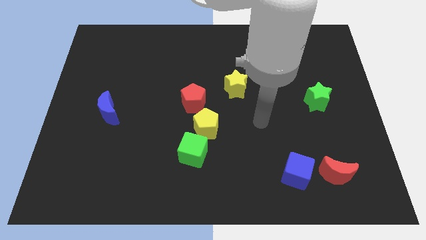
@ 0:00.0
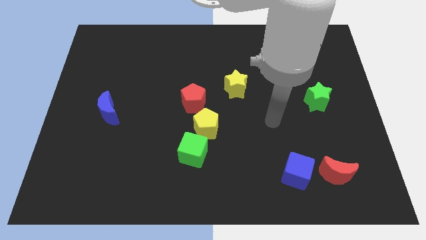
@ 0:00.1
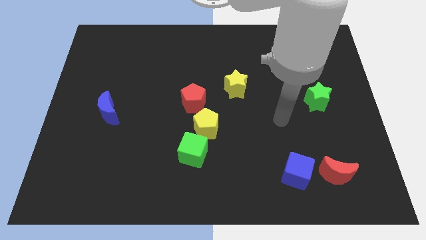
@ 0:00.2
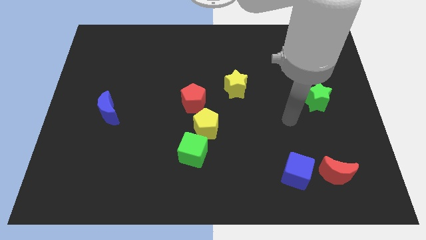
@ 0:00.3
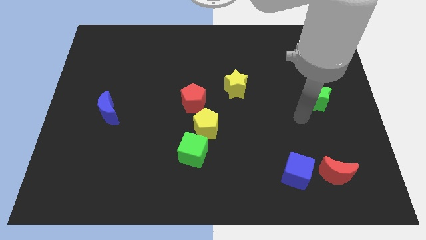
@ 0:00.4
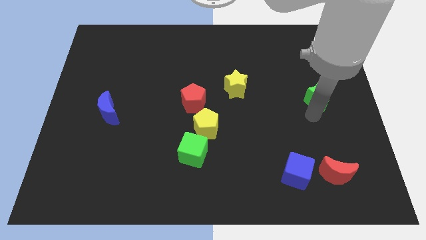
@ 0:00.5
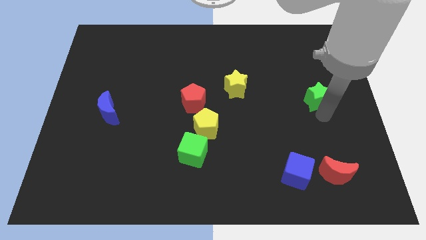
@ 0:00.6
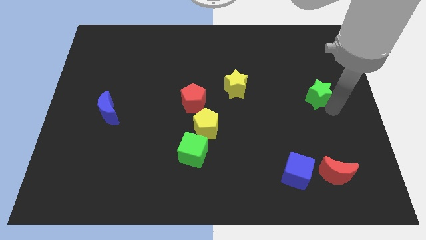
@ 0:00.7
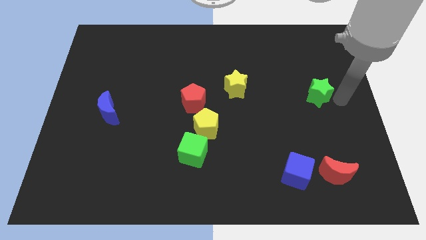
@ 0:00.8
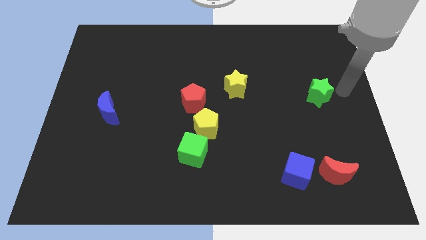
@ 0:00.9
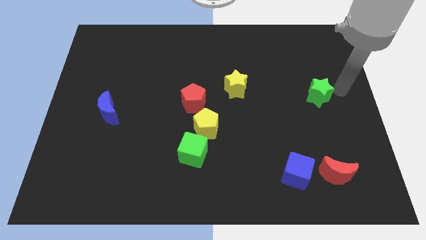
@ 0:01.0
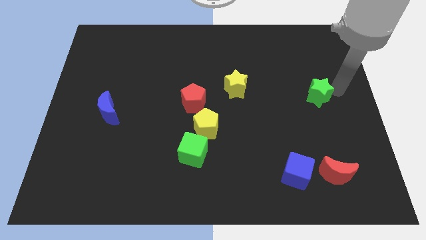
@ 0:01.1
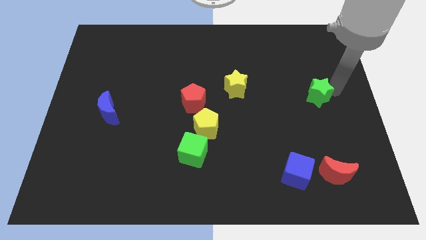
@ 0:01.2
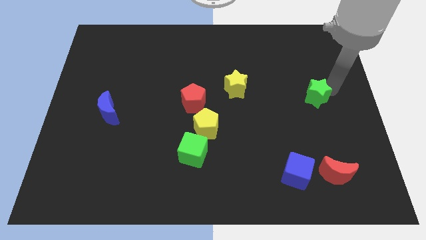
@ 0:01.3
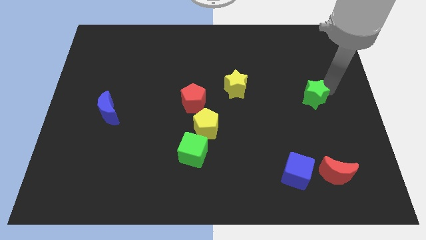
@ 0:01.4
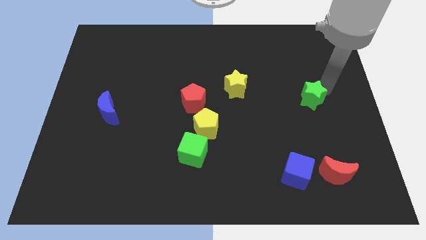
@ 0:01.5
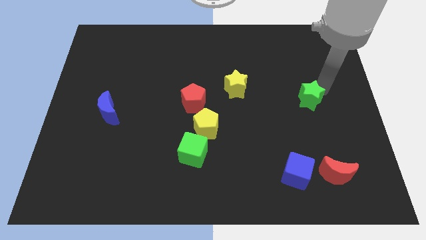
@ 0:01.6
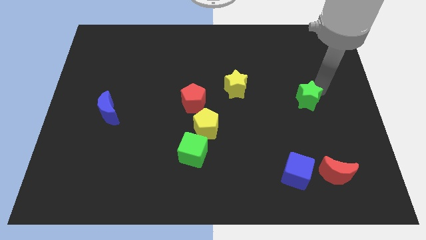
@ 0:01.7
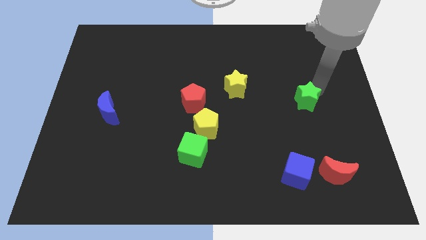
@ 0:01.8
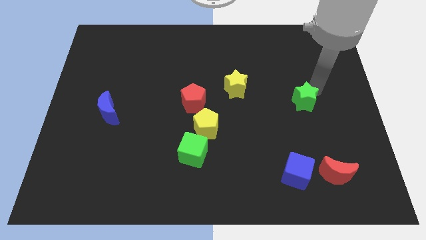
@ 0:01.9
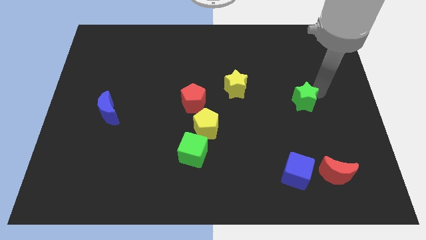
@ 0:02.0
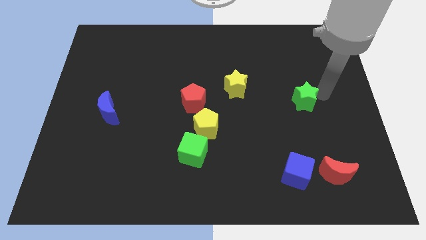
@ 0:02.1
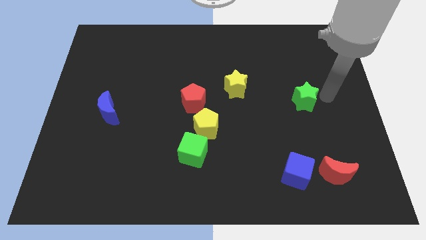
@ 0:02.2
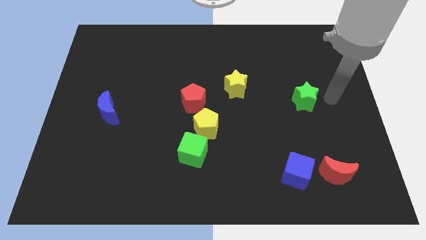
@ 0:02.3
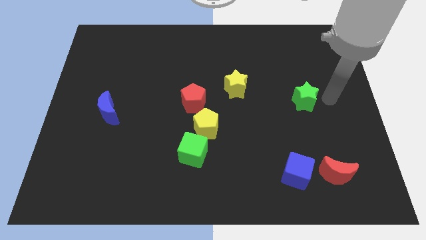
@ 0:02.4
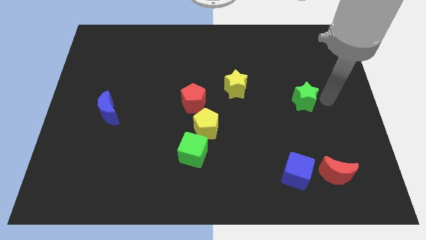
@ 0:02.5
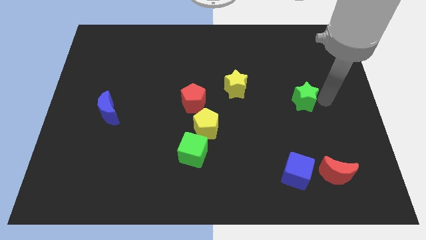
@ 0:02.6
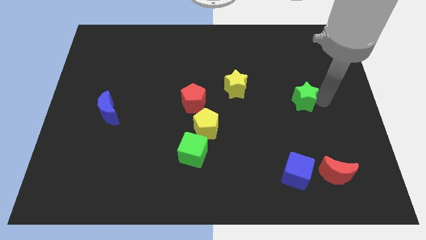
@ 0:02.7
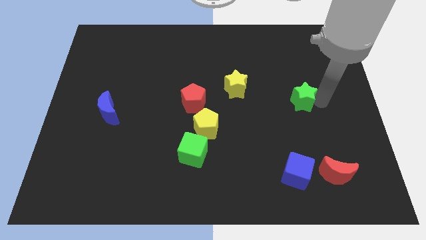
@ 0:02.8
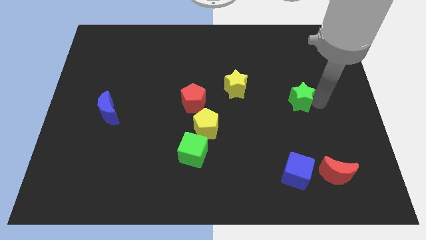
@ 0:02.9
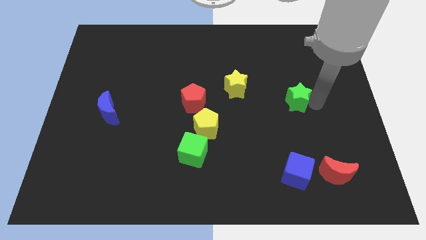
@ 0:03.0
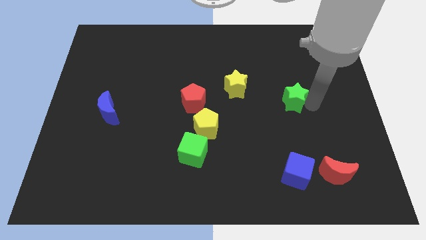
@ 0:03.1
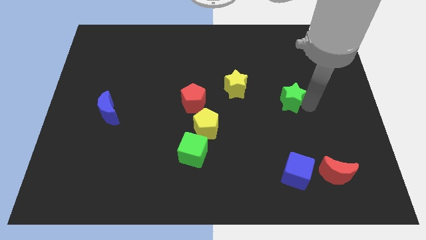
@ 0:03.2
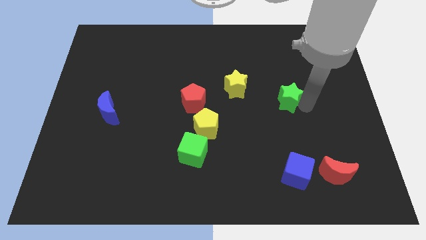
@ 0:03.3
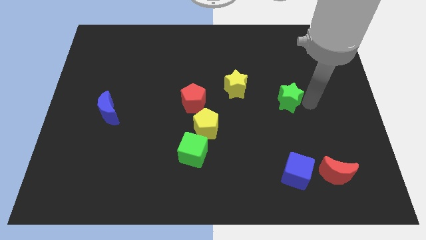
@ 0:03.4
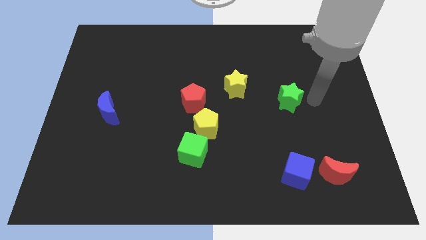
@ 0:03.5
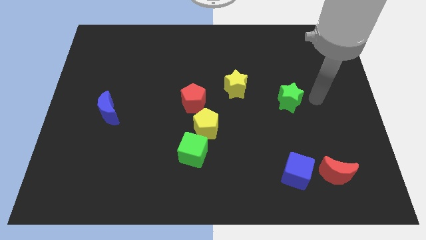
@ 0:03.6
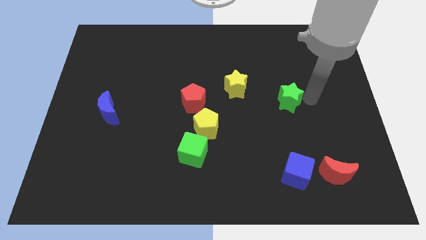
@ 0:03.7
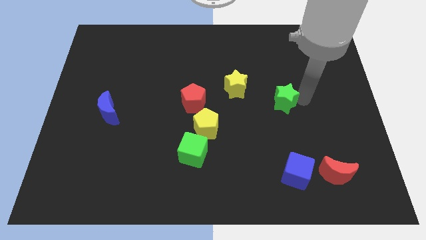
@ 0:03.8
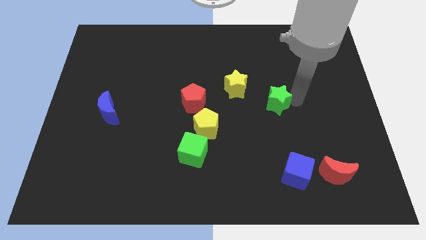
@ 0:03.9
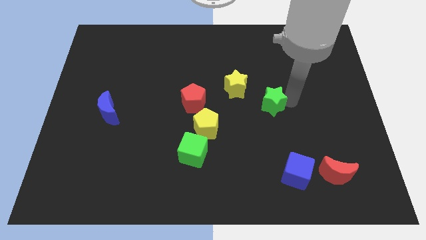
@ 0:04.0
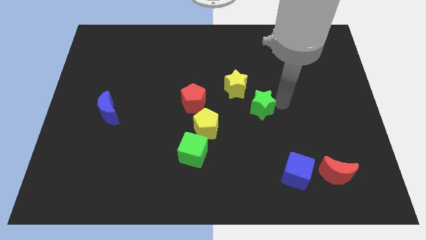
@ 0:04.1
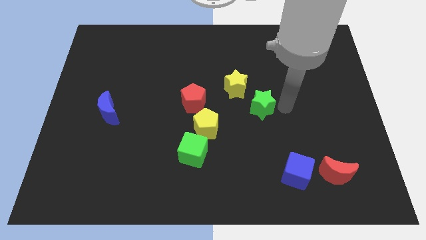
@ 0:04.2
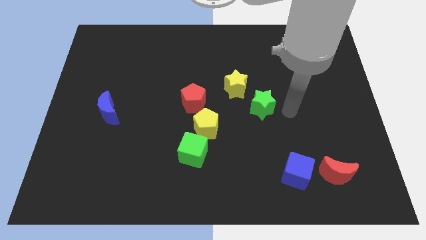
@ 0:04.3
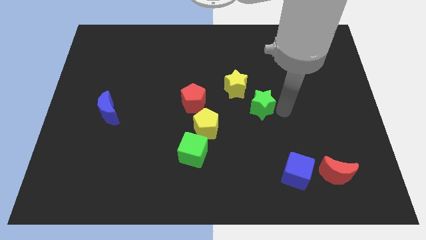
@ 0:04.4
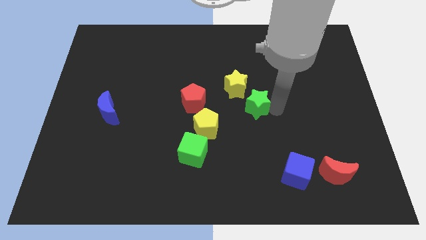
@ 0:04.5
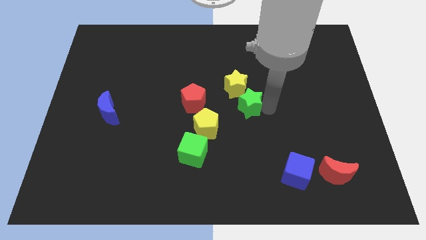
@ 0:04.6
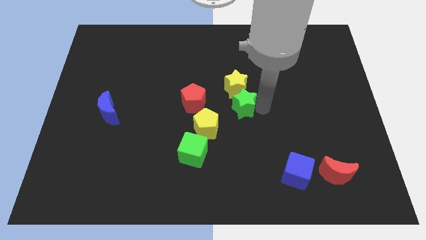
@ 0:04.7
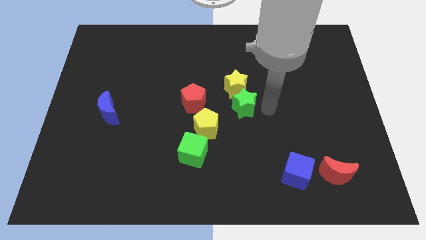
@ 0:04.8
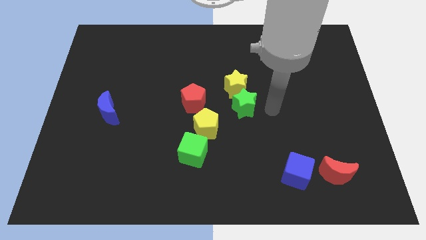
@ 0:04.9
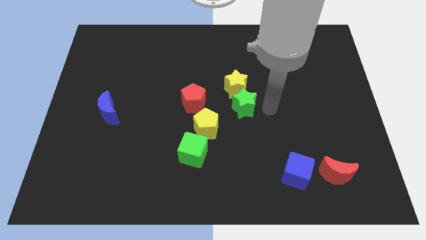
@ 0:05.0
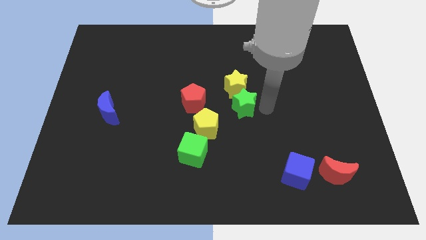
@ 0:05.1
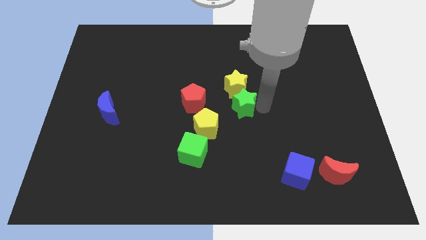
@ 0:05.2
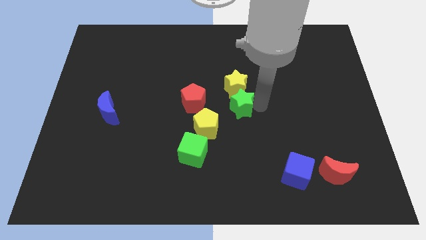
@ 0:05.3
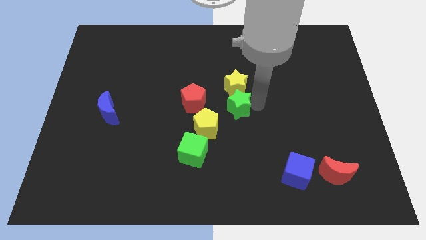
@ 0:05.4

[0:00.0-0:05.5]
move the green star diagonally down and to the left of the yellow star

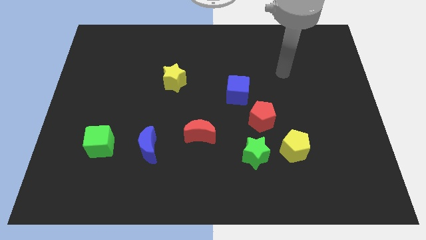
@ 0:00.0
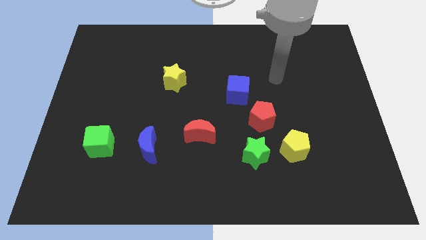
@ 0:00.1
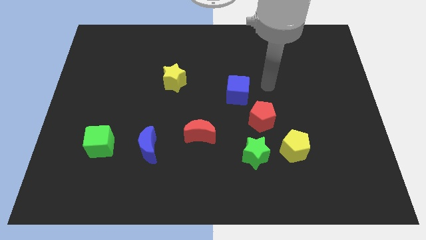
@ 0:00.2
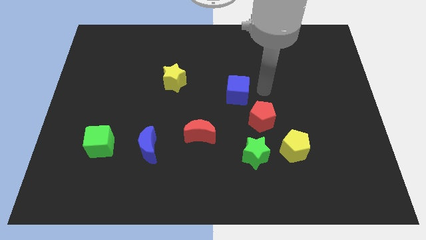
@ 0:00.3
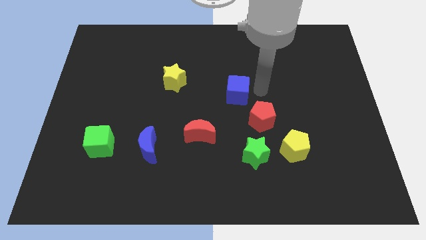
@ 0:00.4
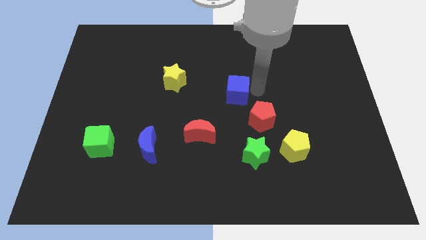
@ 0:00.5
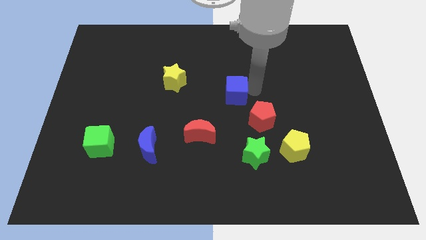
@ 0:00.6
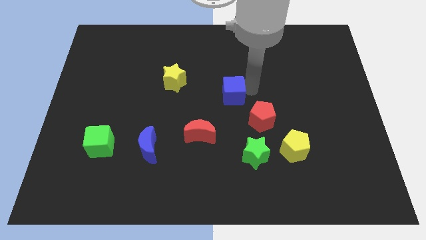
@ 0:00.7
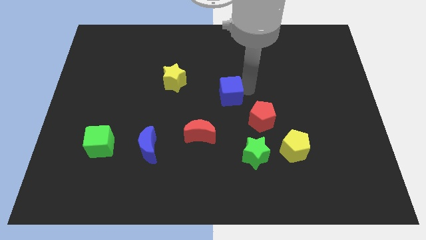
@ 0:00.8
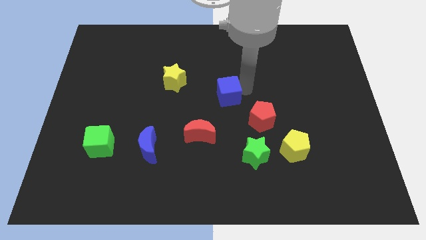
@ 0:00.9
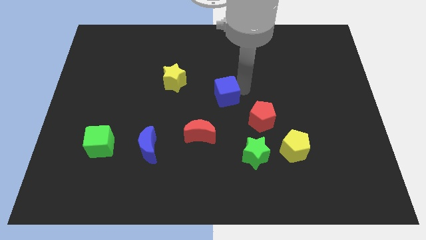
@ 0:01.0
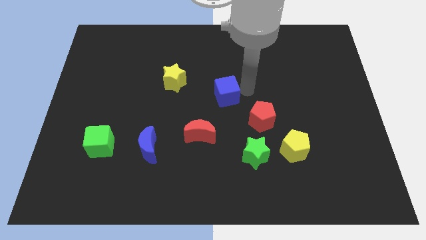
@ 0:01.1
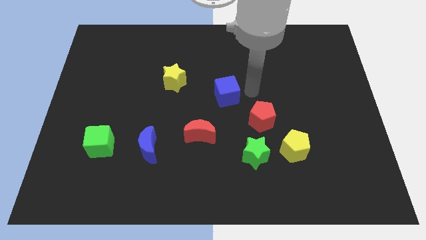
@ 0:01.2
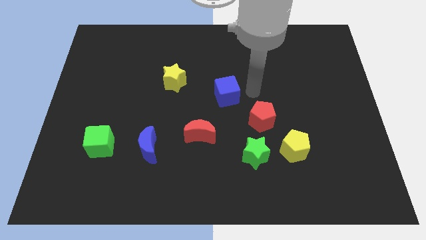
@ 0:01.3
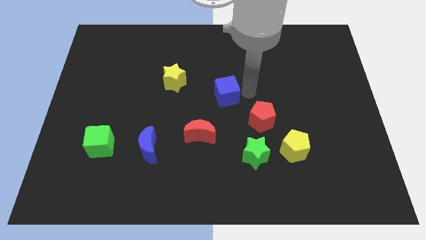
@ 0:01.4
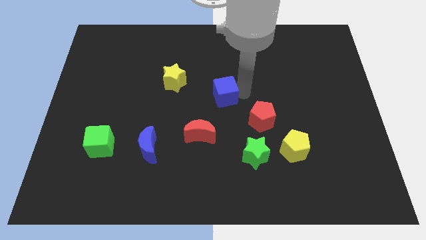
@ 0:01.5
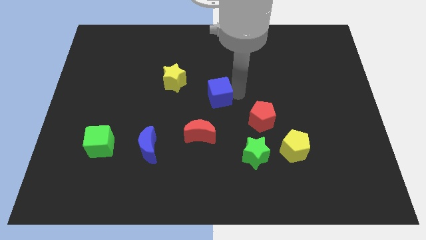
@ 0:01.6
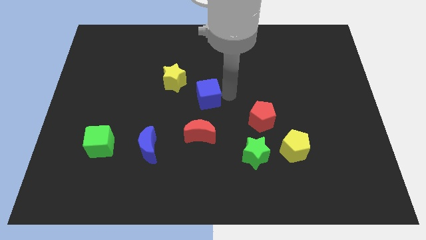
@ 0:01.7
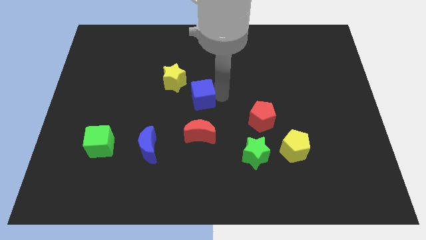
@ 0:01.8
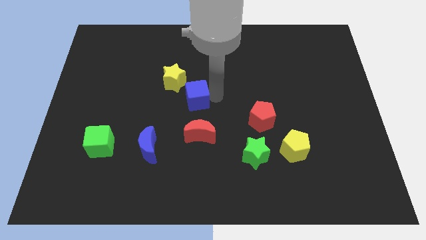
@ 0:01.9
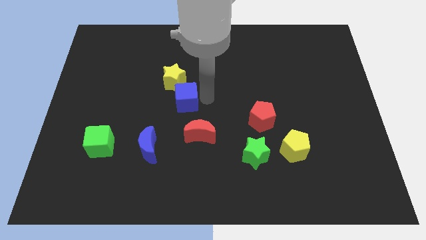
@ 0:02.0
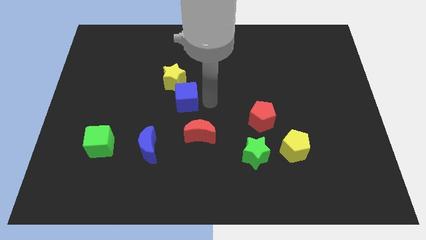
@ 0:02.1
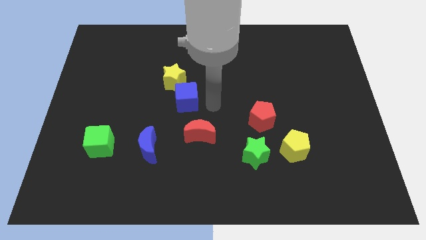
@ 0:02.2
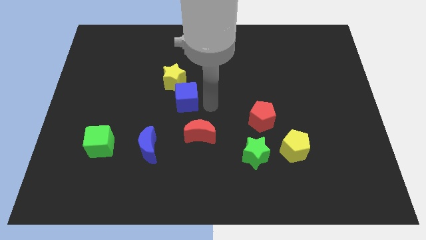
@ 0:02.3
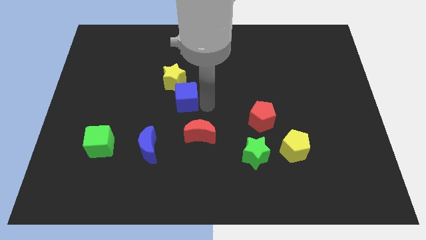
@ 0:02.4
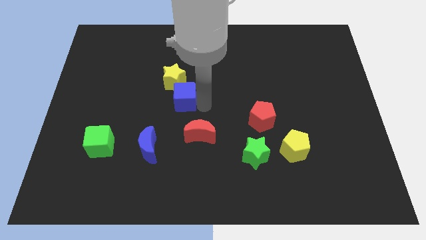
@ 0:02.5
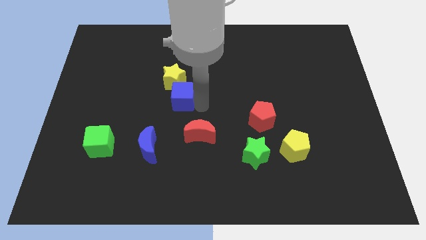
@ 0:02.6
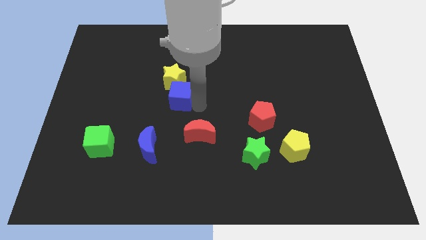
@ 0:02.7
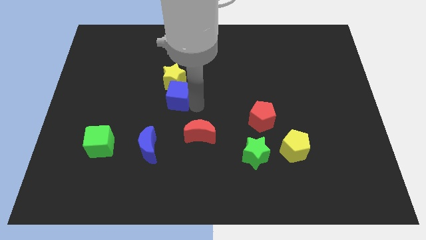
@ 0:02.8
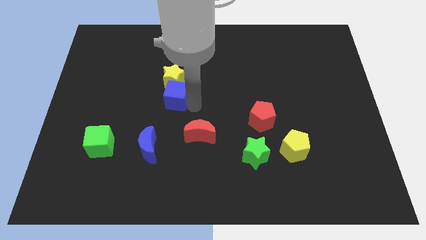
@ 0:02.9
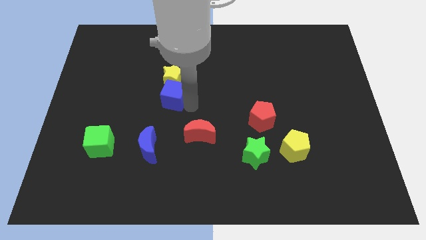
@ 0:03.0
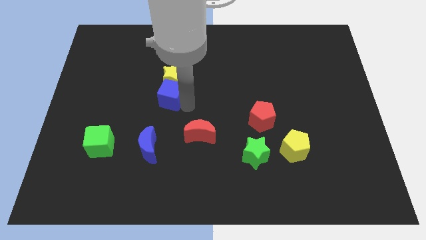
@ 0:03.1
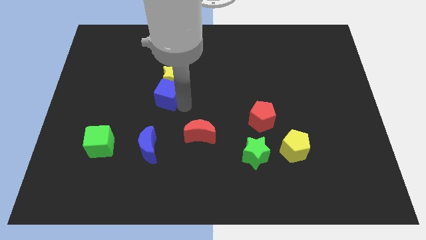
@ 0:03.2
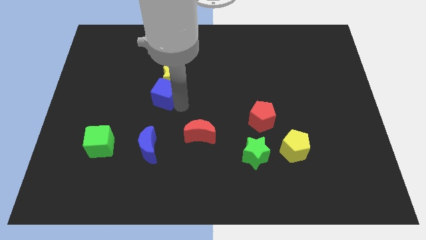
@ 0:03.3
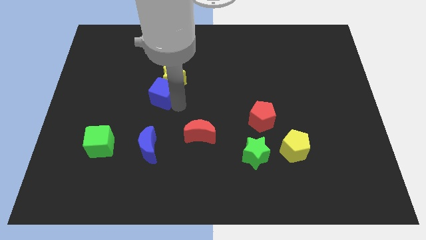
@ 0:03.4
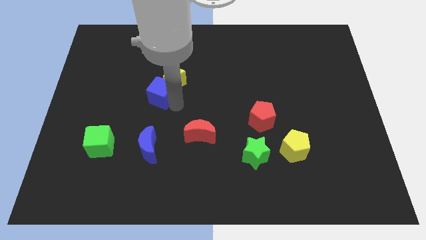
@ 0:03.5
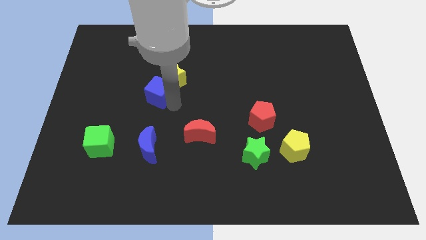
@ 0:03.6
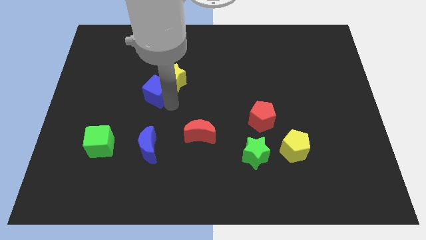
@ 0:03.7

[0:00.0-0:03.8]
put the blue cube to the left of the yellow star
